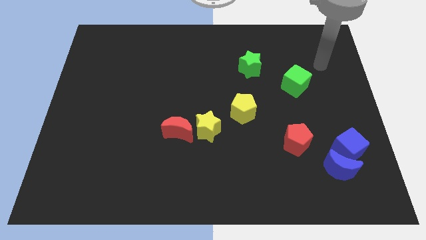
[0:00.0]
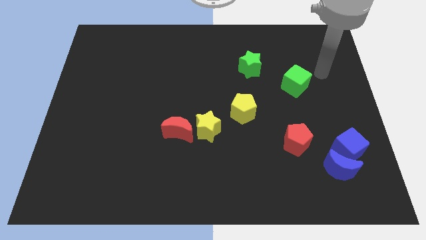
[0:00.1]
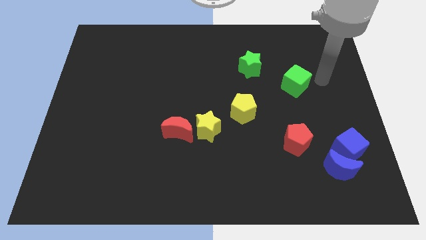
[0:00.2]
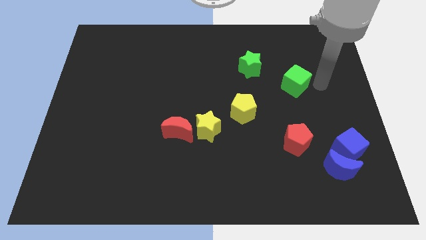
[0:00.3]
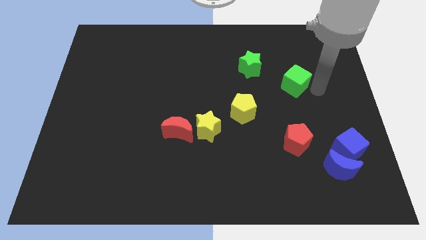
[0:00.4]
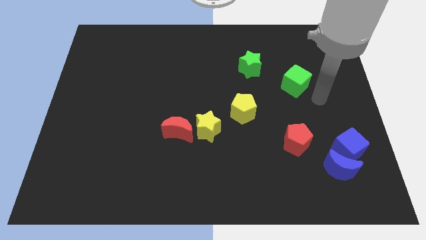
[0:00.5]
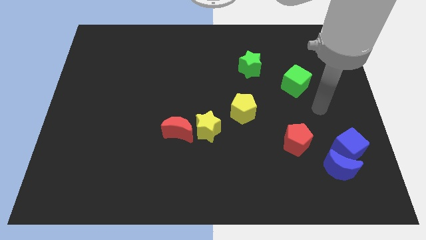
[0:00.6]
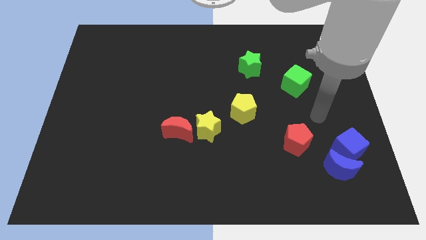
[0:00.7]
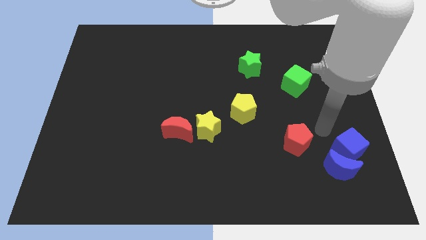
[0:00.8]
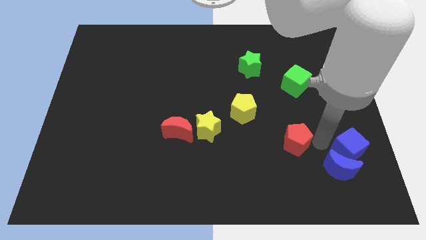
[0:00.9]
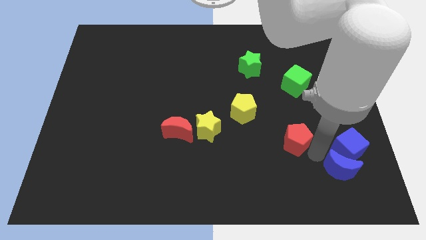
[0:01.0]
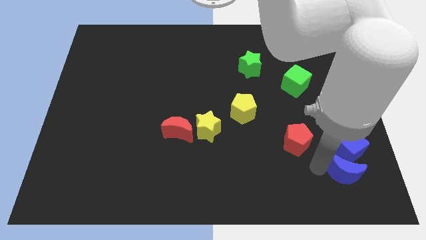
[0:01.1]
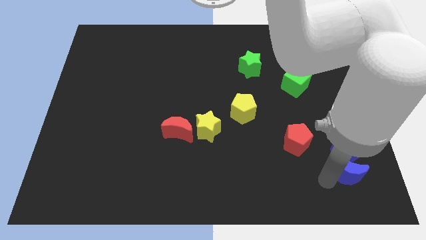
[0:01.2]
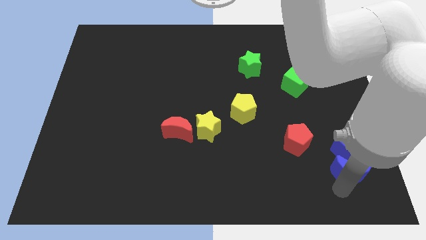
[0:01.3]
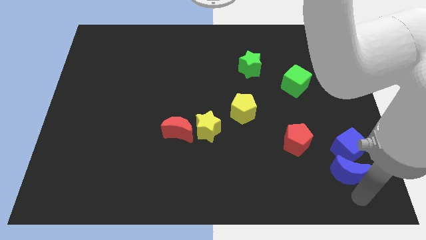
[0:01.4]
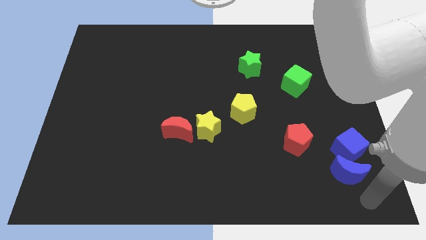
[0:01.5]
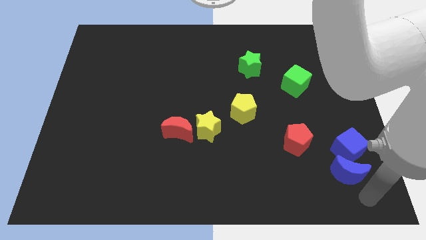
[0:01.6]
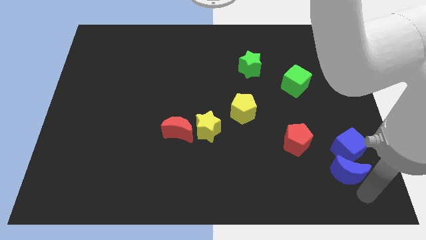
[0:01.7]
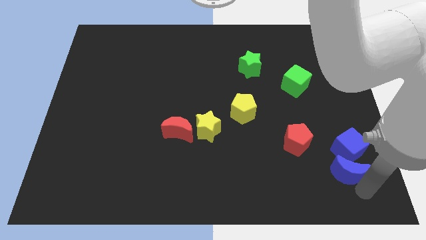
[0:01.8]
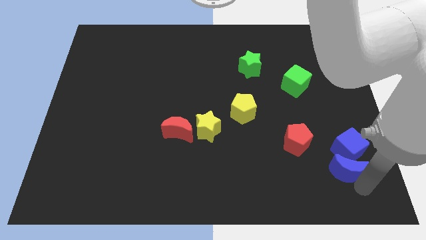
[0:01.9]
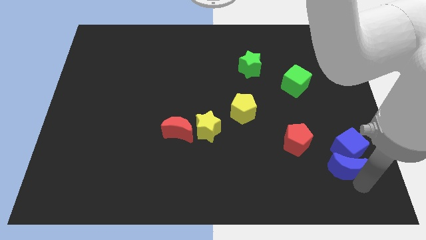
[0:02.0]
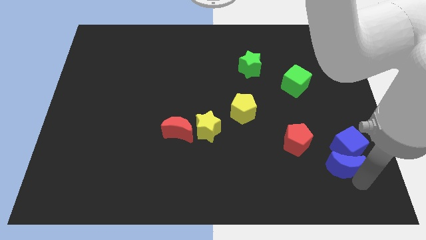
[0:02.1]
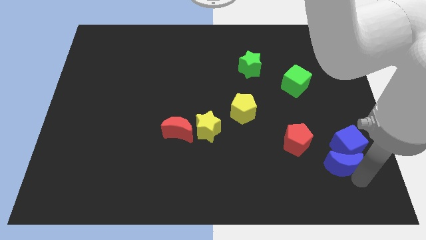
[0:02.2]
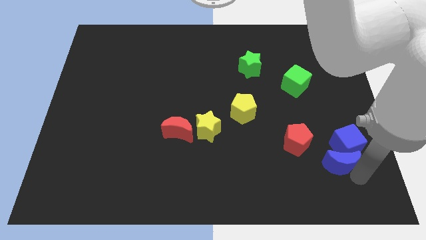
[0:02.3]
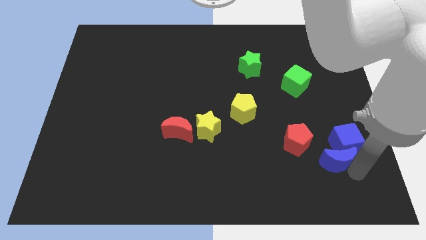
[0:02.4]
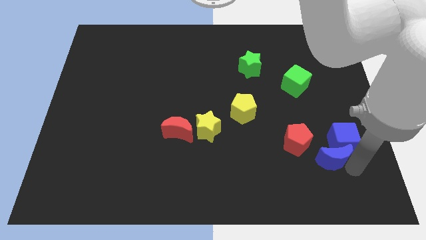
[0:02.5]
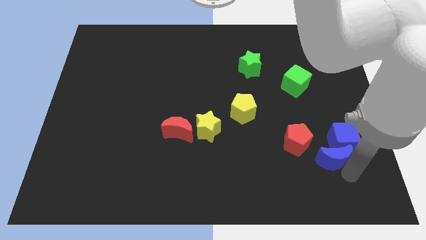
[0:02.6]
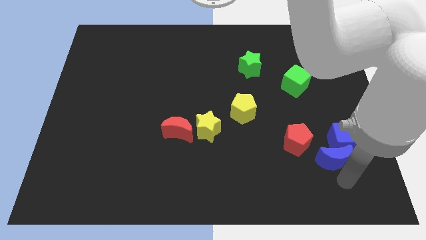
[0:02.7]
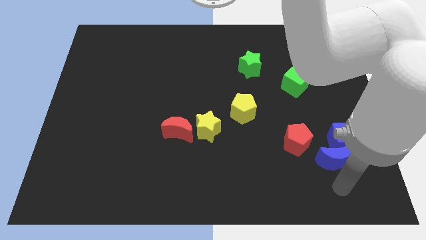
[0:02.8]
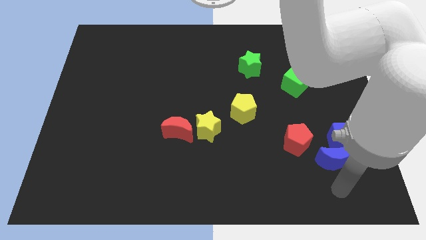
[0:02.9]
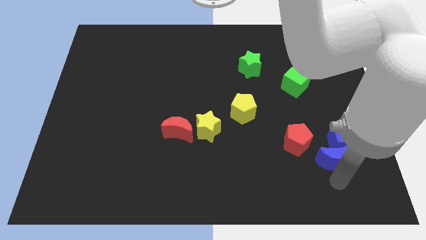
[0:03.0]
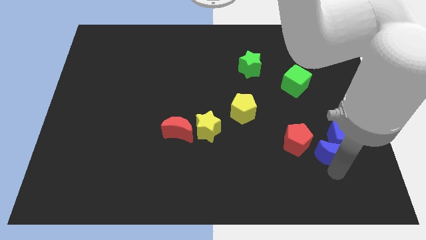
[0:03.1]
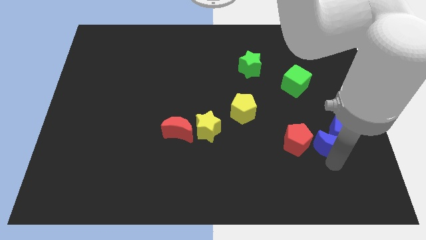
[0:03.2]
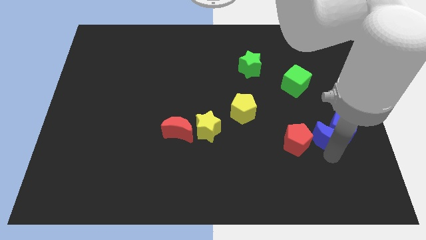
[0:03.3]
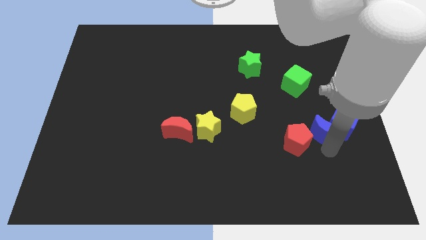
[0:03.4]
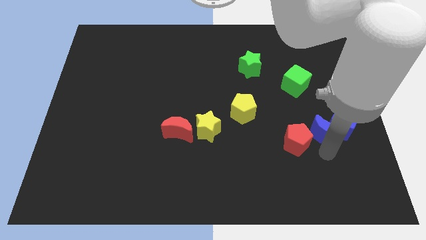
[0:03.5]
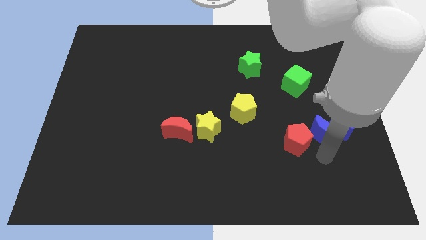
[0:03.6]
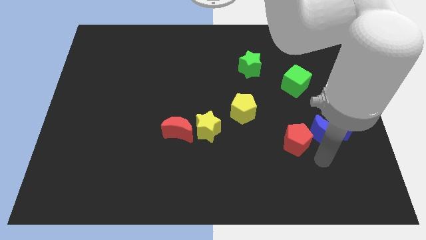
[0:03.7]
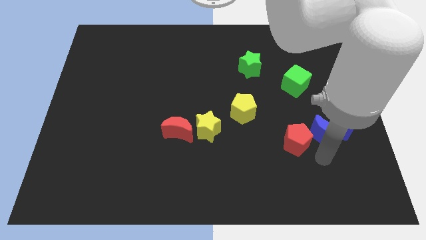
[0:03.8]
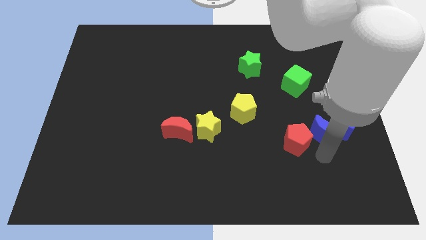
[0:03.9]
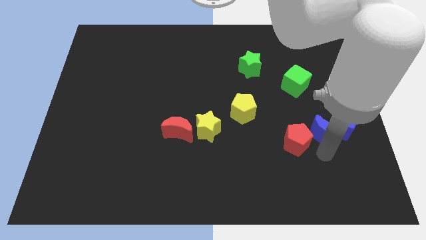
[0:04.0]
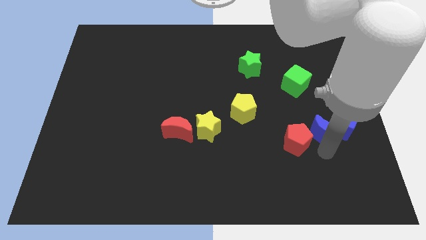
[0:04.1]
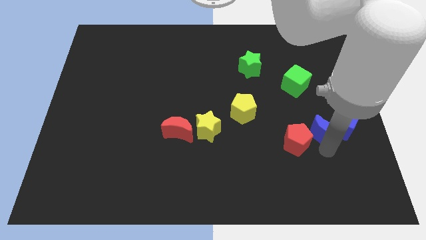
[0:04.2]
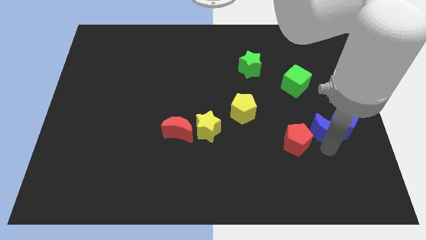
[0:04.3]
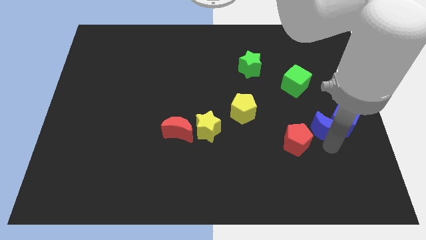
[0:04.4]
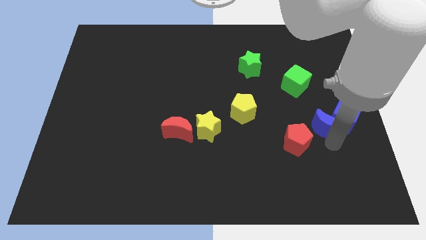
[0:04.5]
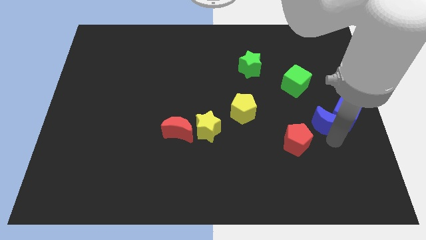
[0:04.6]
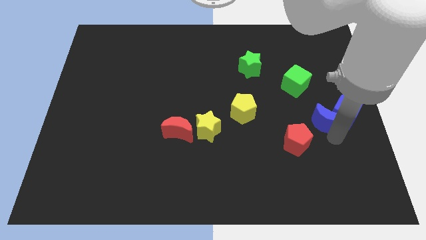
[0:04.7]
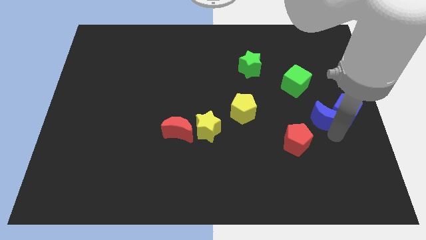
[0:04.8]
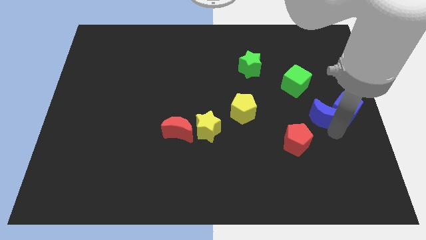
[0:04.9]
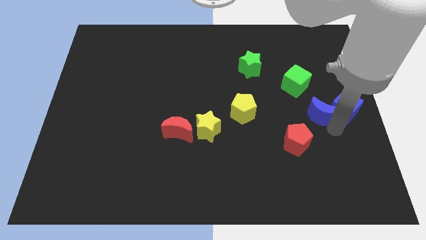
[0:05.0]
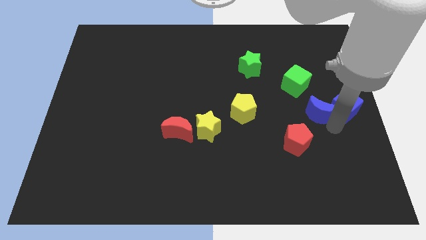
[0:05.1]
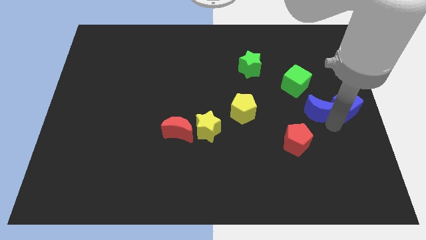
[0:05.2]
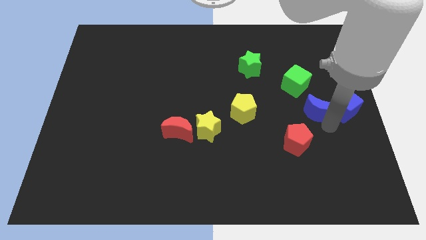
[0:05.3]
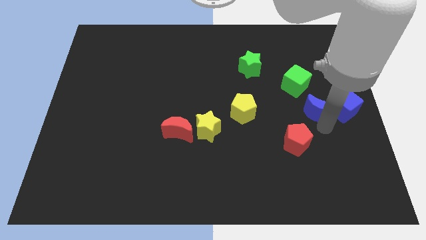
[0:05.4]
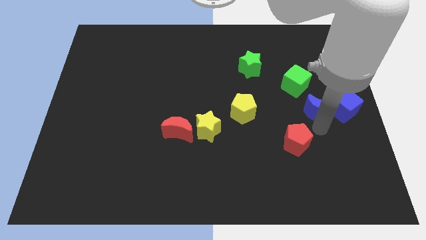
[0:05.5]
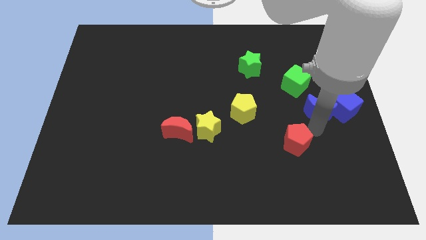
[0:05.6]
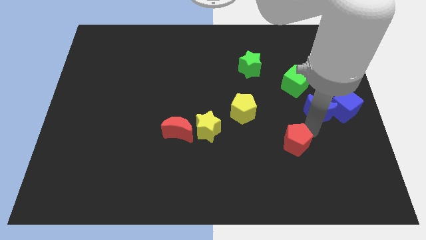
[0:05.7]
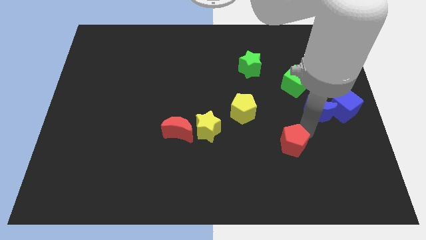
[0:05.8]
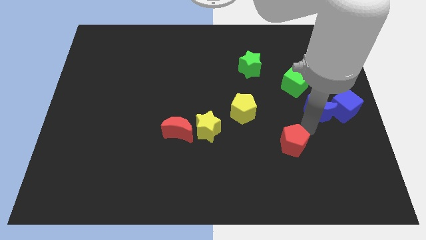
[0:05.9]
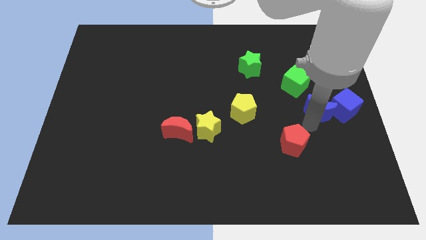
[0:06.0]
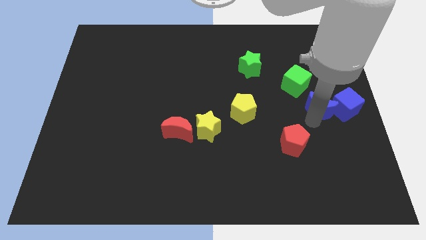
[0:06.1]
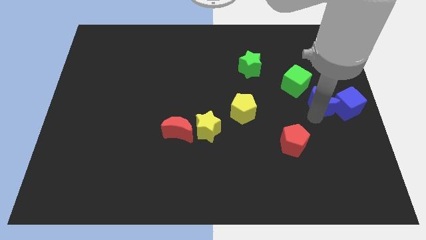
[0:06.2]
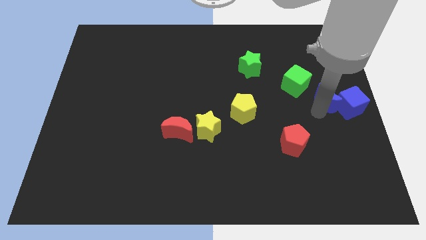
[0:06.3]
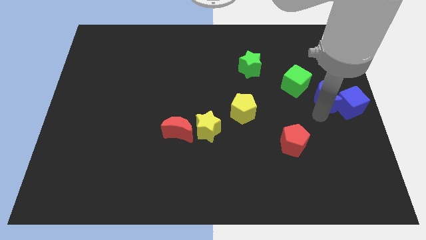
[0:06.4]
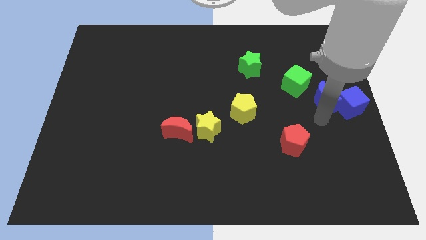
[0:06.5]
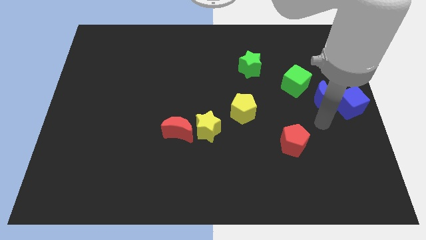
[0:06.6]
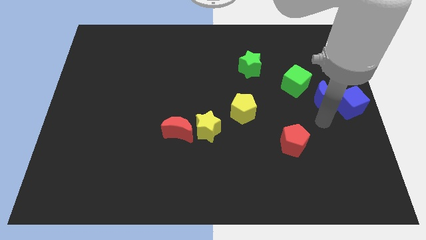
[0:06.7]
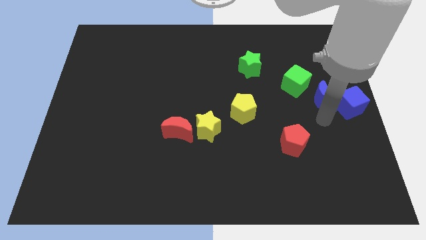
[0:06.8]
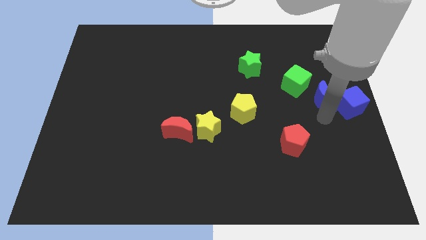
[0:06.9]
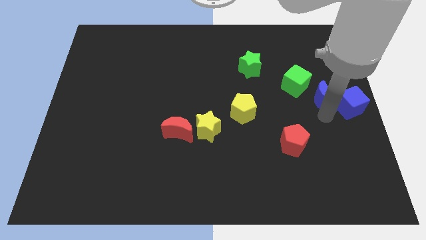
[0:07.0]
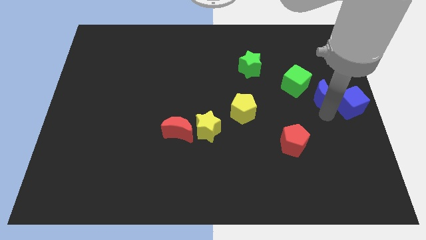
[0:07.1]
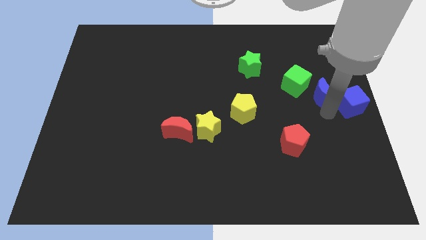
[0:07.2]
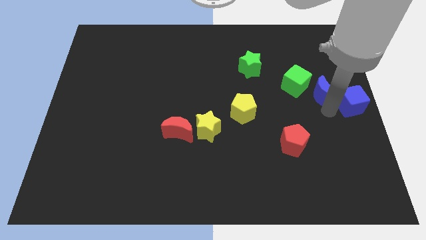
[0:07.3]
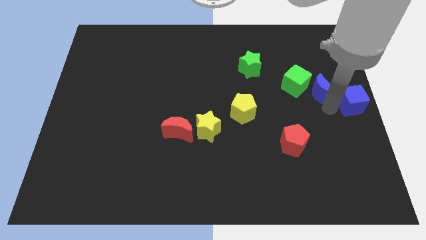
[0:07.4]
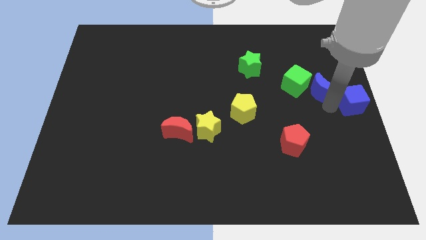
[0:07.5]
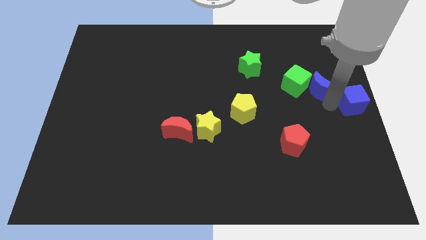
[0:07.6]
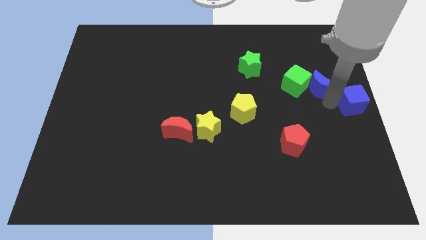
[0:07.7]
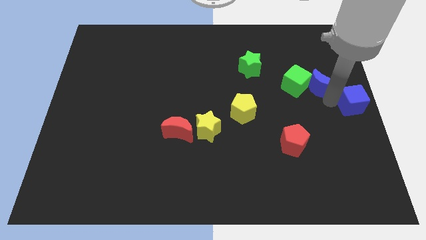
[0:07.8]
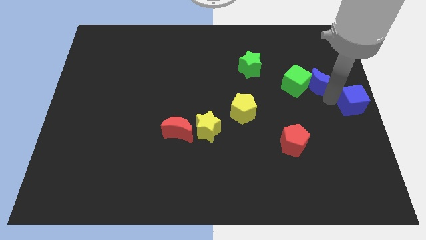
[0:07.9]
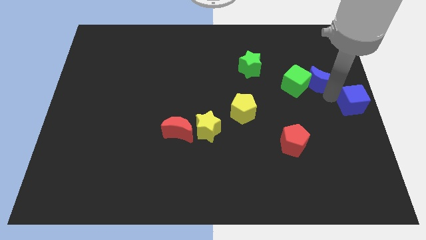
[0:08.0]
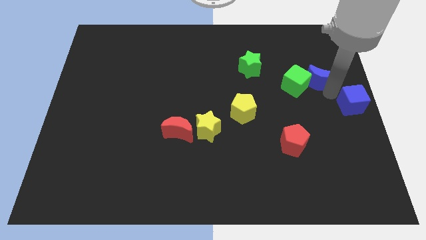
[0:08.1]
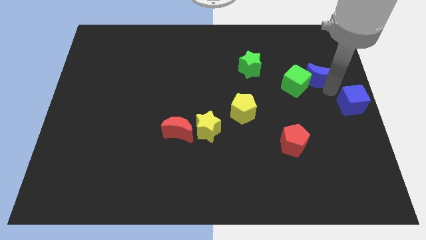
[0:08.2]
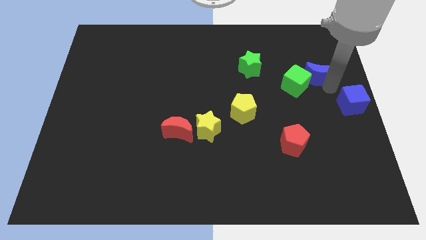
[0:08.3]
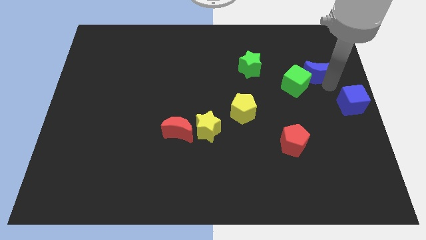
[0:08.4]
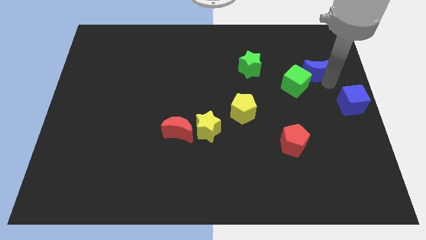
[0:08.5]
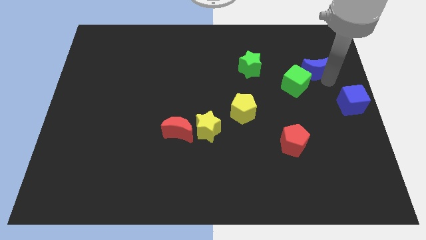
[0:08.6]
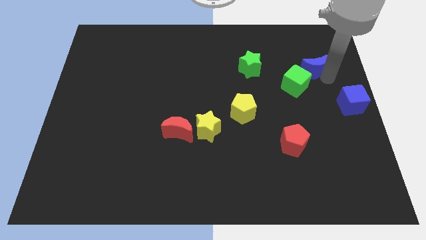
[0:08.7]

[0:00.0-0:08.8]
put the blue moon to the right of the green star
